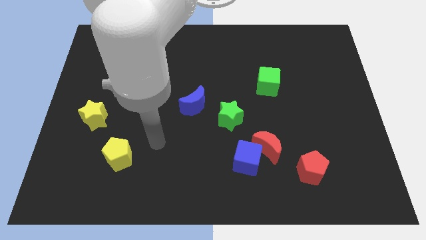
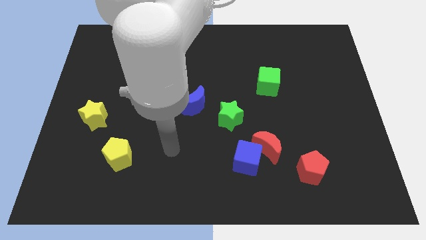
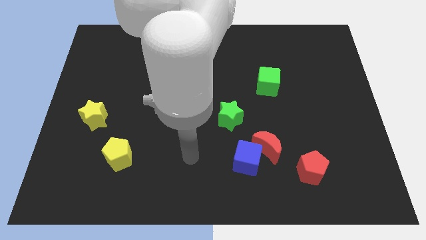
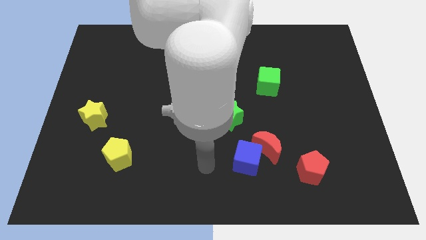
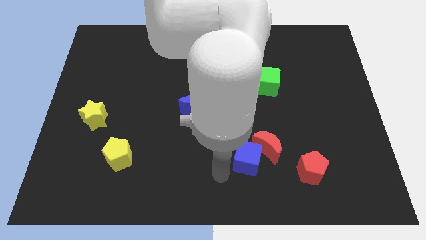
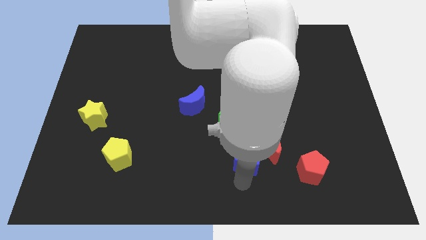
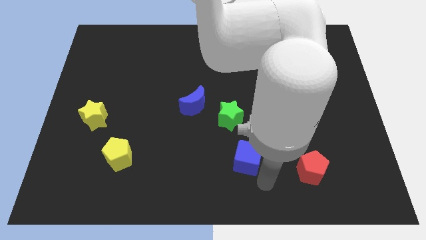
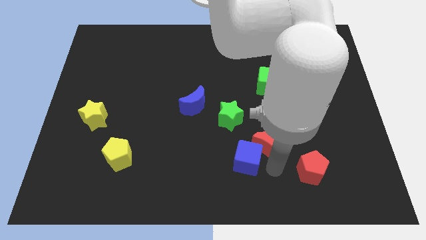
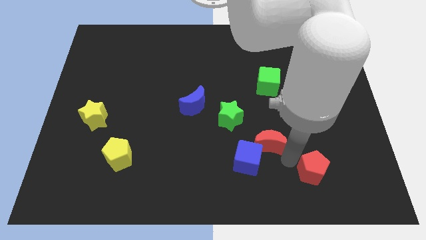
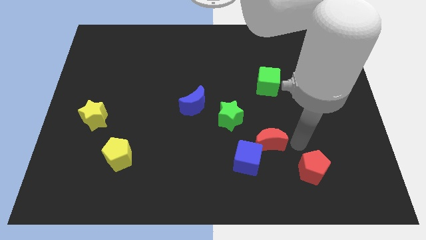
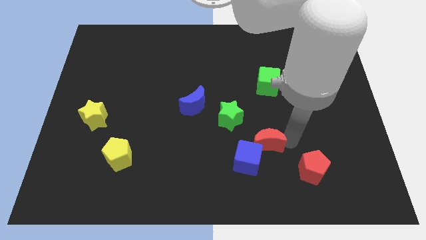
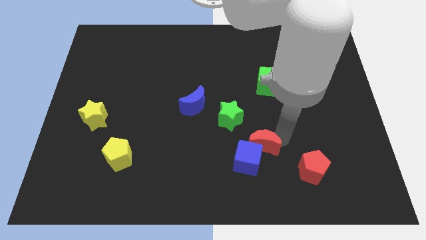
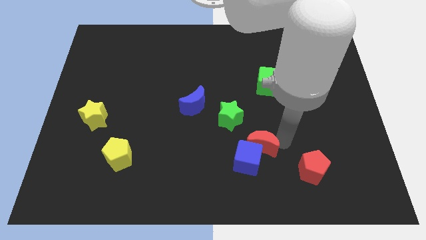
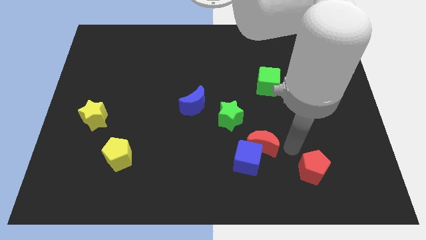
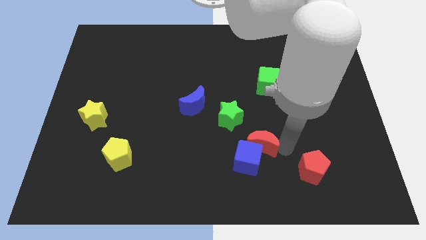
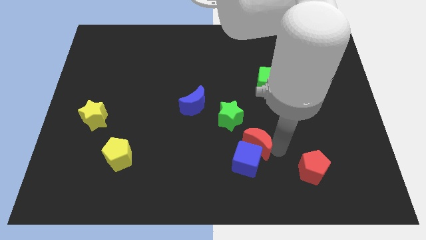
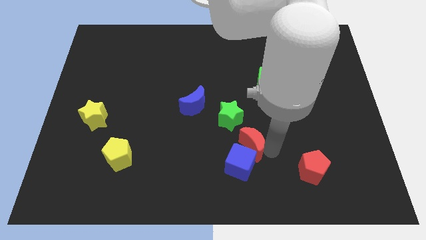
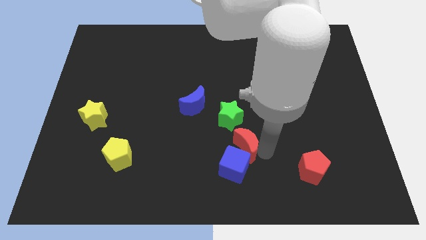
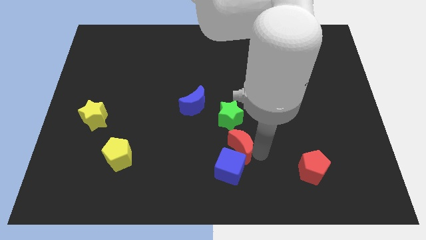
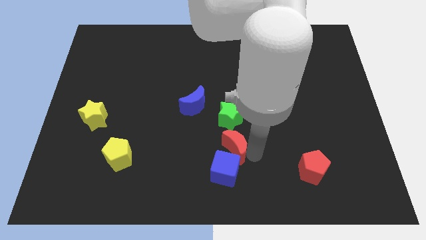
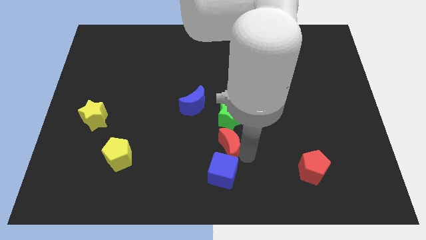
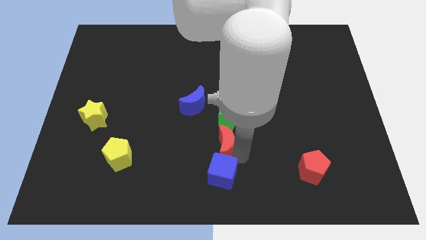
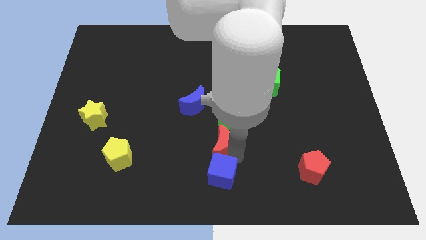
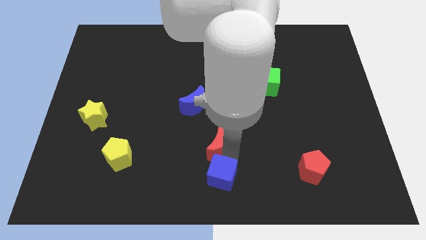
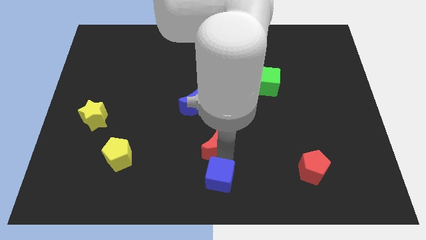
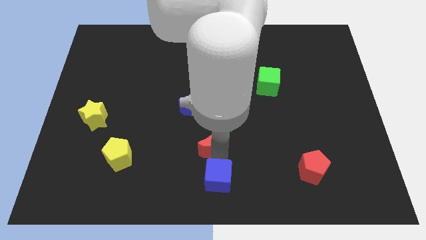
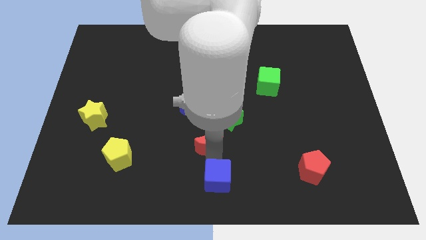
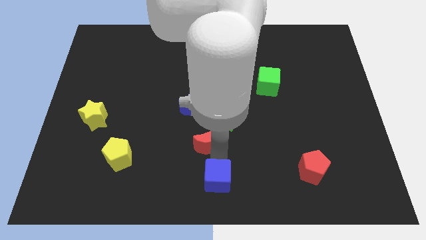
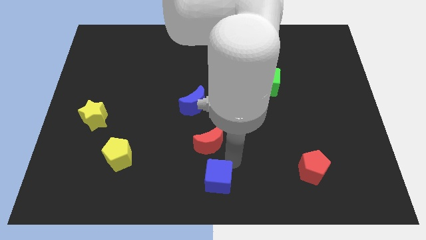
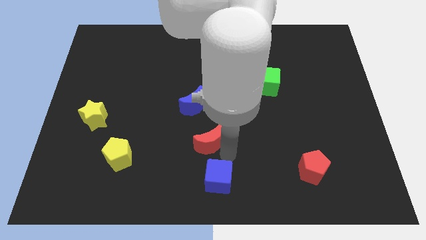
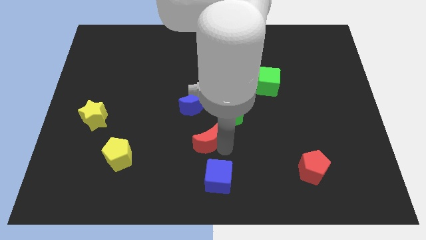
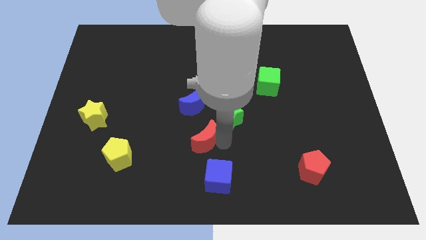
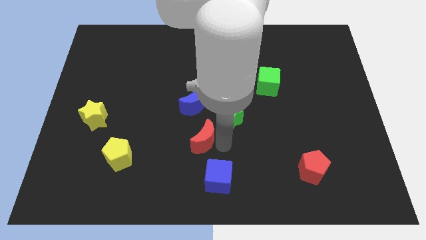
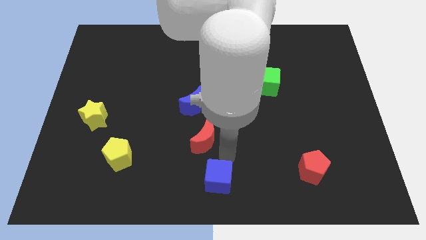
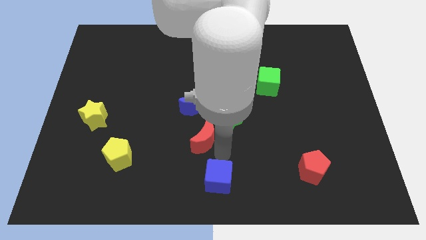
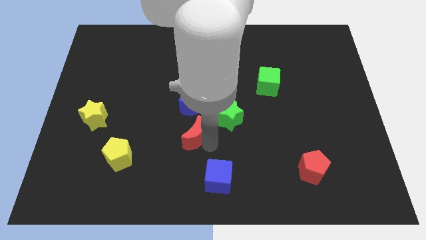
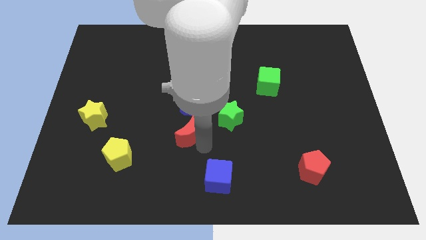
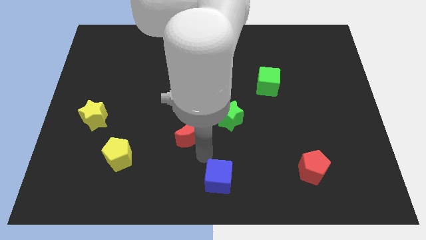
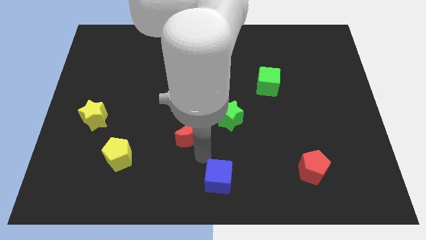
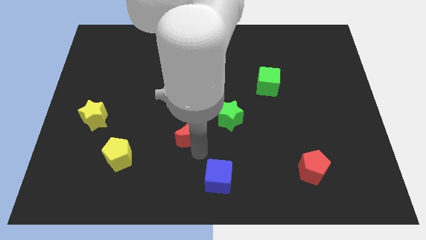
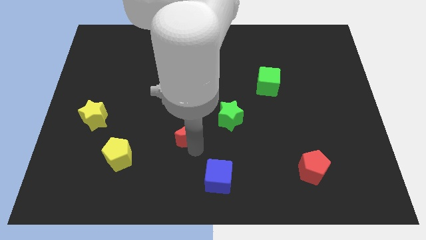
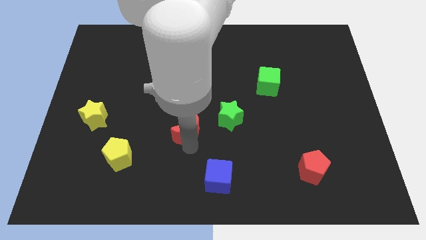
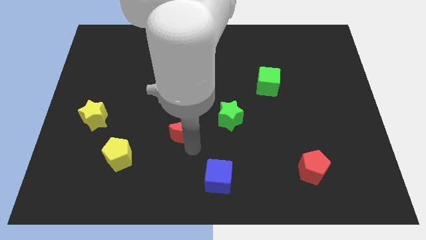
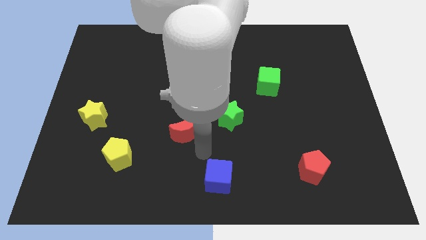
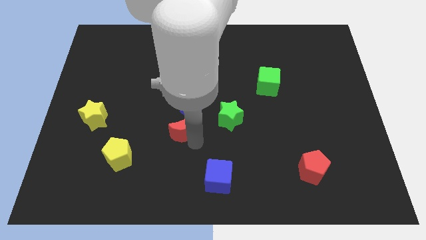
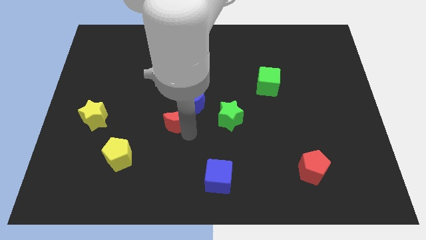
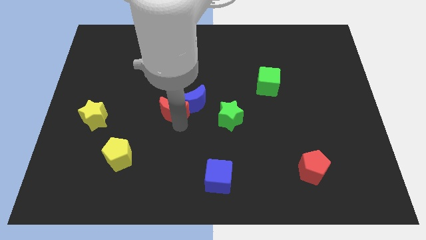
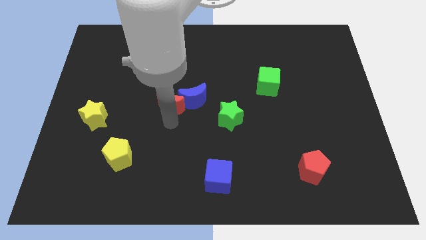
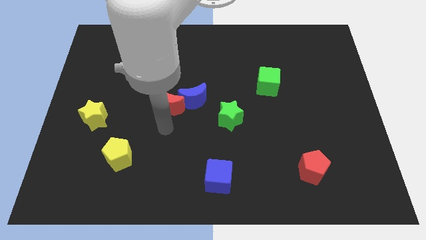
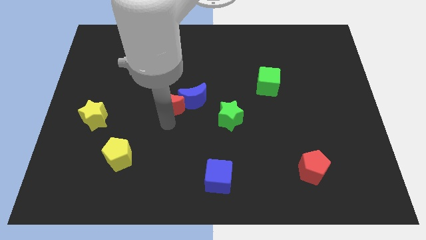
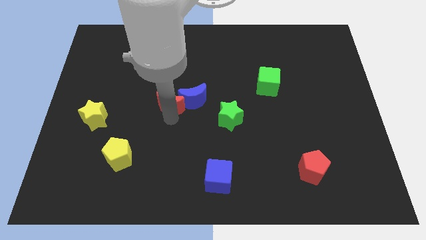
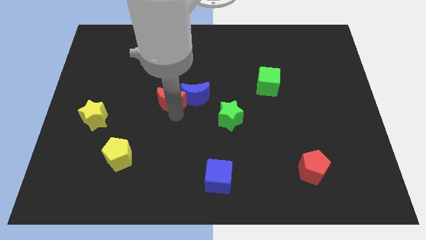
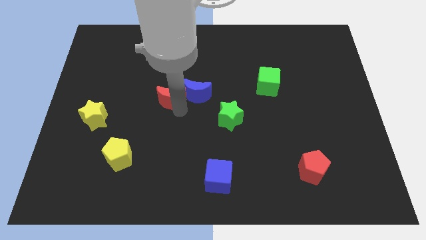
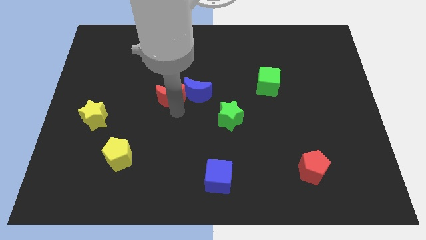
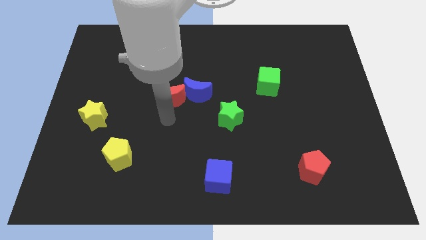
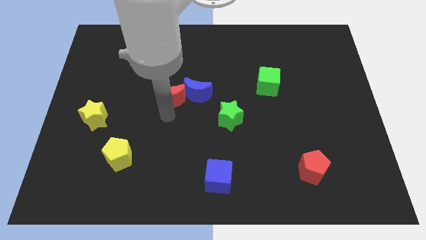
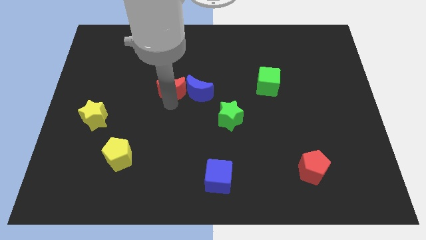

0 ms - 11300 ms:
put the red moon to the top left side of the blue moon

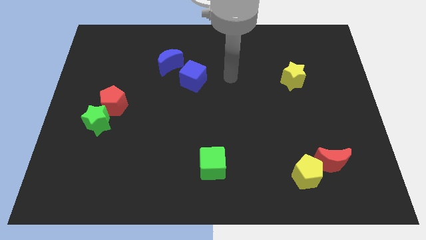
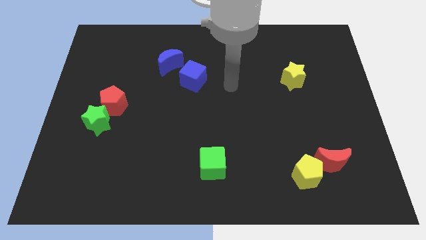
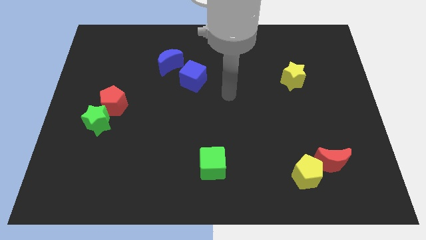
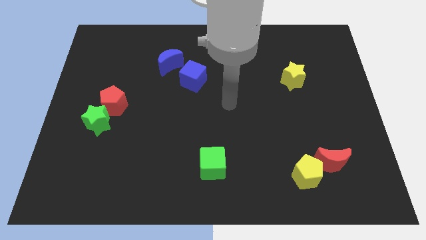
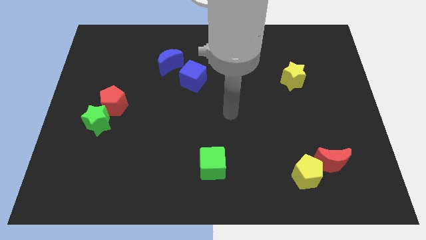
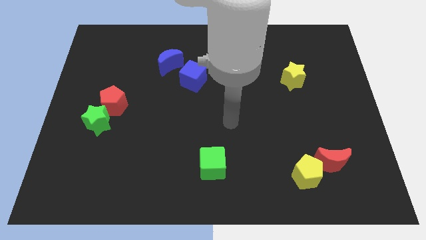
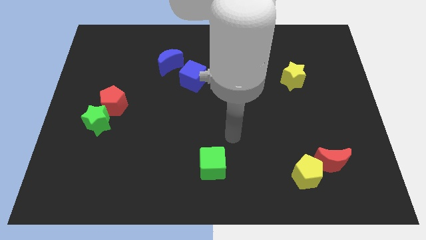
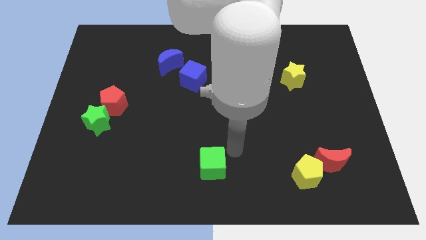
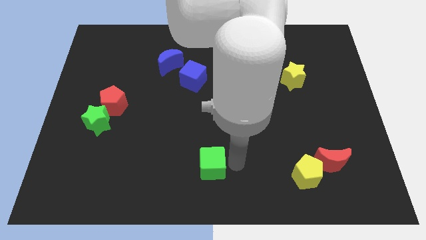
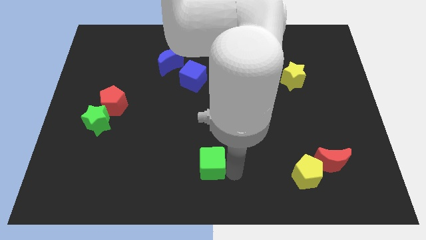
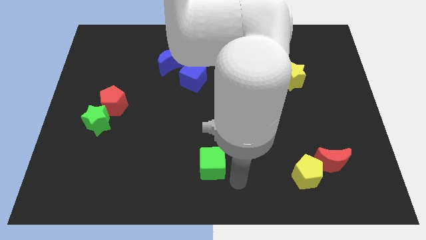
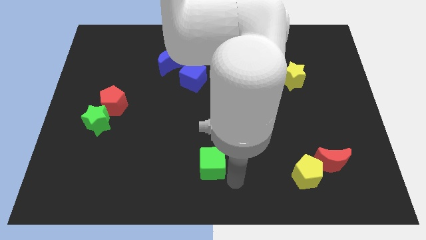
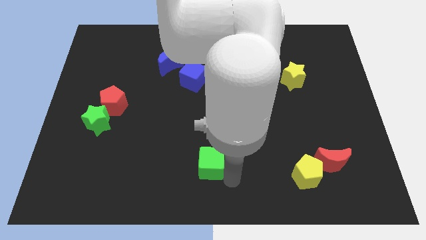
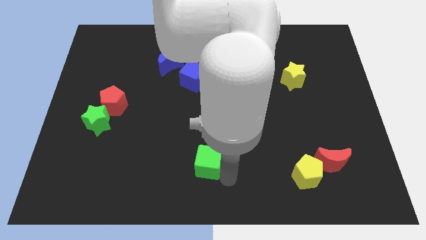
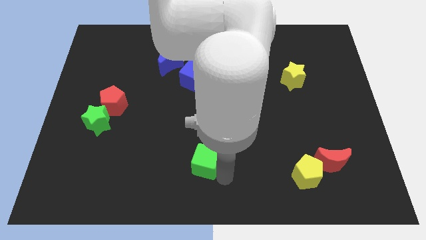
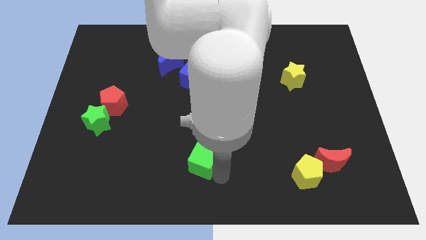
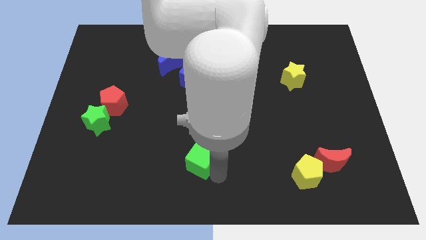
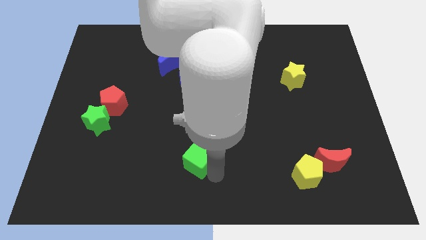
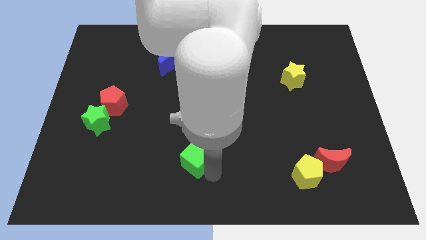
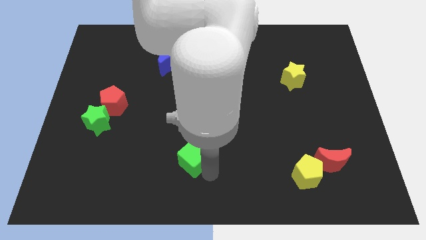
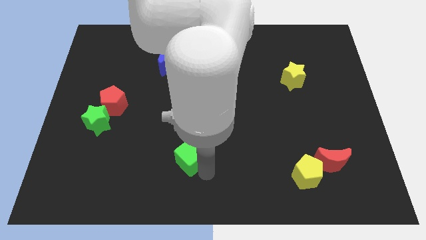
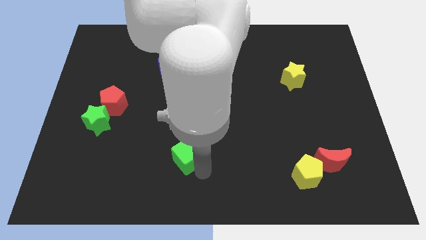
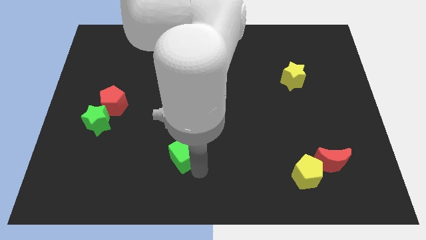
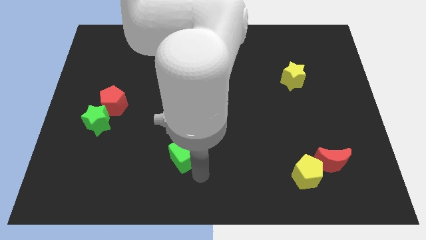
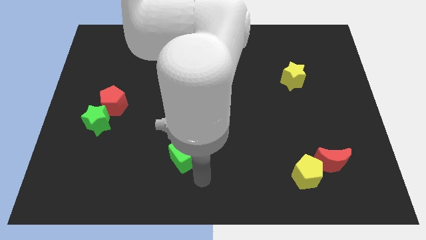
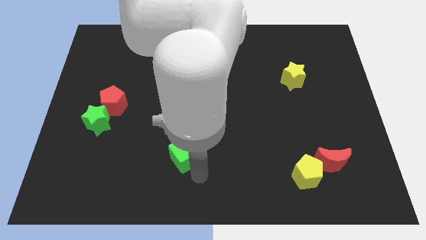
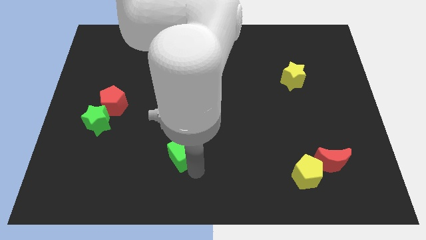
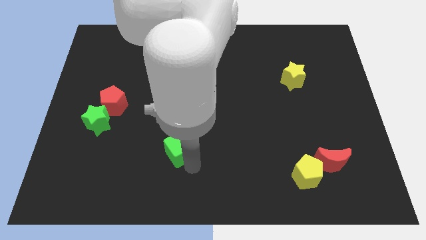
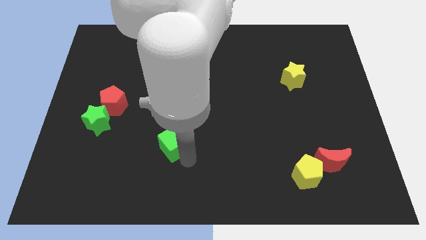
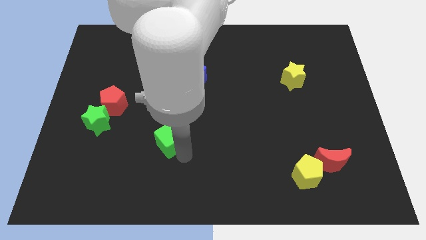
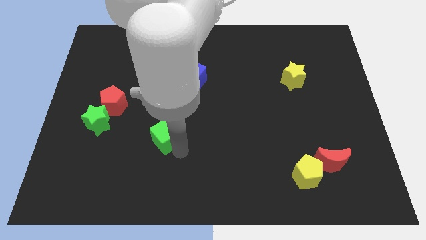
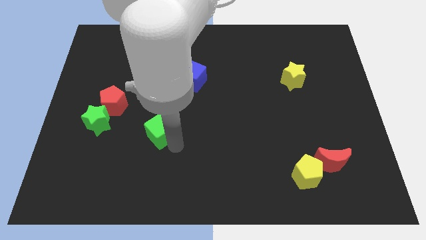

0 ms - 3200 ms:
move the green cube to the right side of the green star
